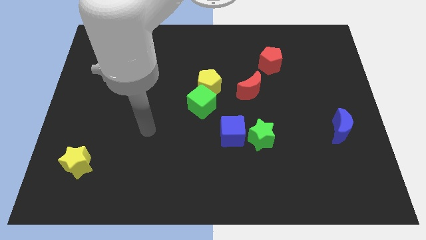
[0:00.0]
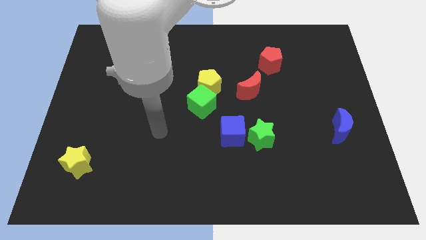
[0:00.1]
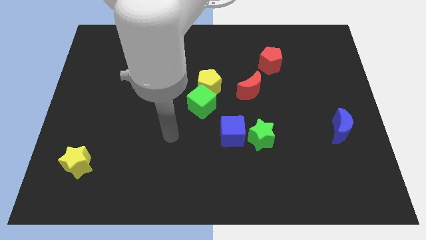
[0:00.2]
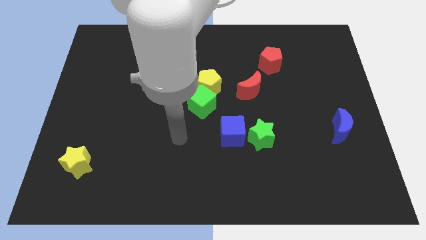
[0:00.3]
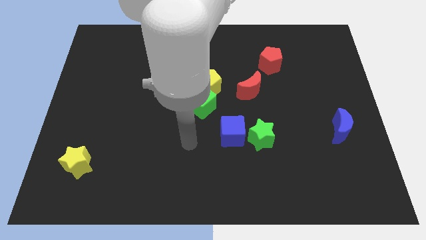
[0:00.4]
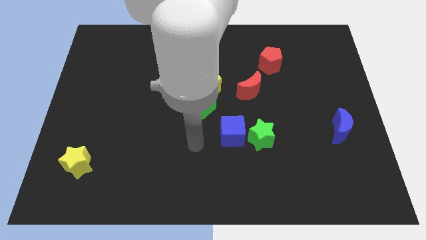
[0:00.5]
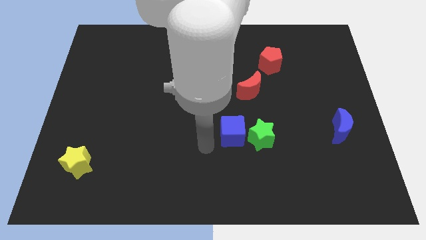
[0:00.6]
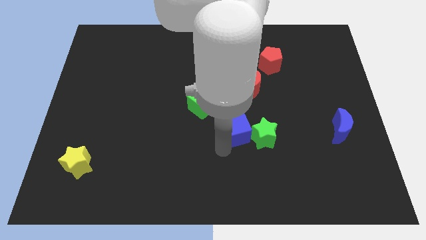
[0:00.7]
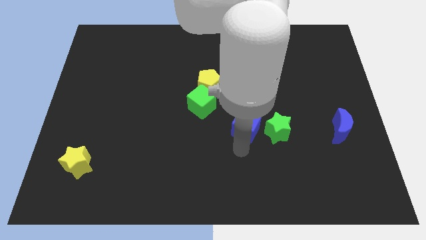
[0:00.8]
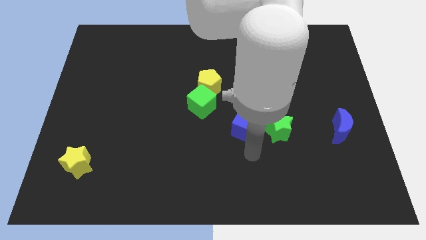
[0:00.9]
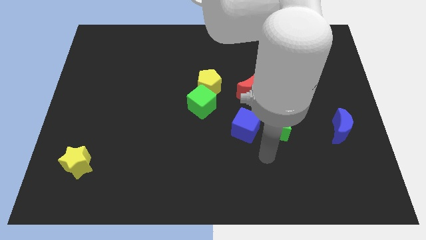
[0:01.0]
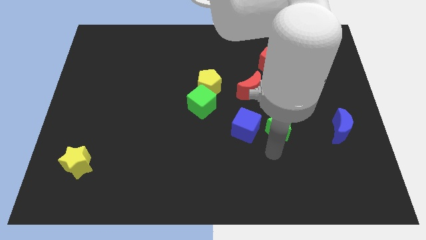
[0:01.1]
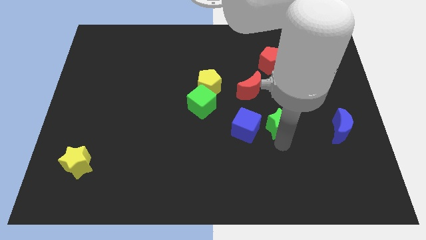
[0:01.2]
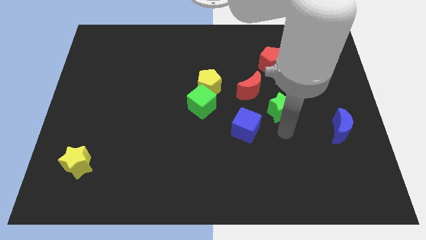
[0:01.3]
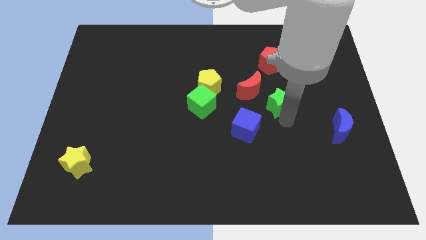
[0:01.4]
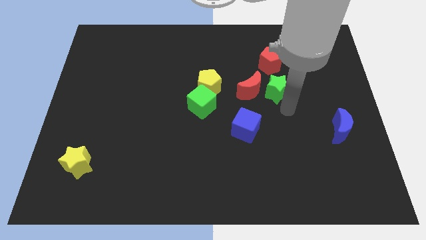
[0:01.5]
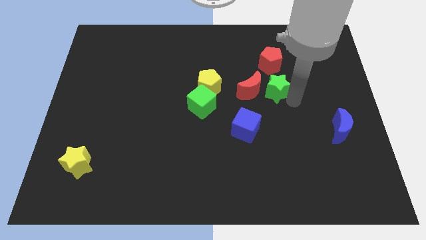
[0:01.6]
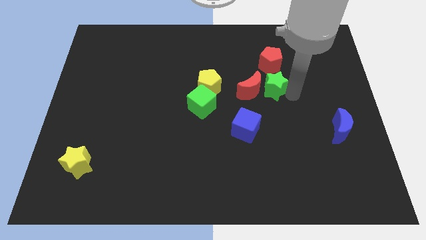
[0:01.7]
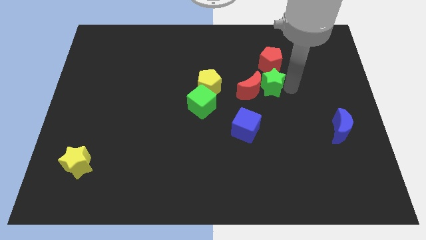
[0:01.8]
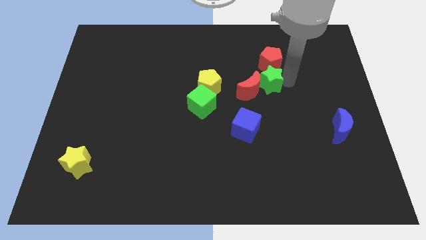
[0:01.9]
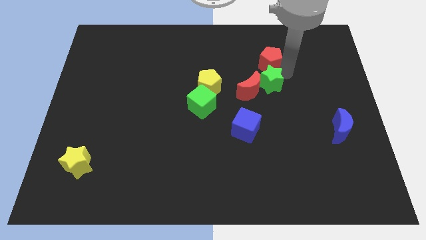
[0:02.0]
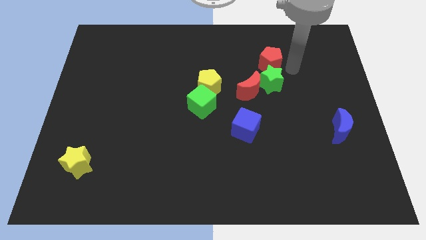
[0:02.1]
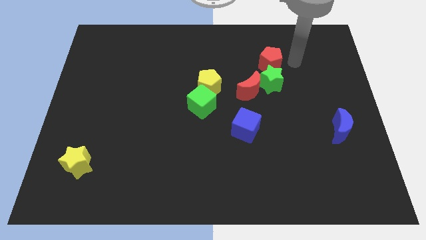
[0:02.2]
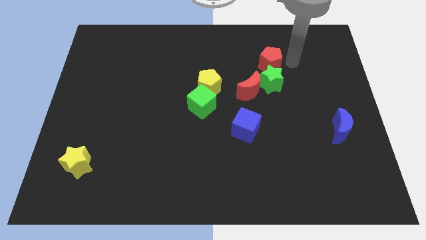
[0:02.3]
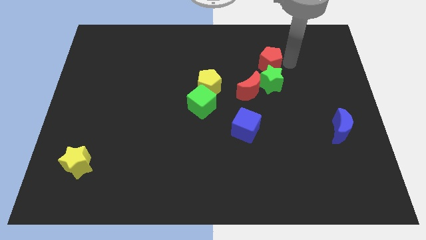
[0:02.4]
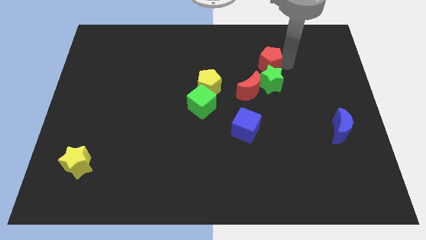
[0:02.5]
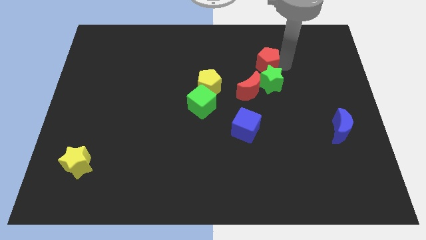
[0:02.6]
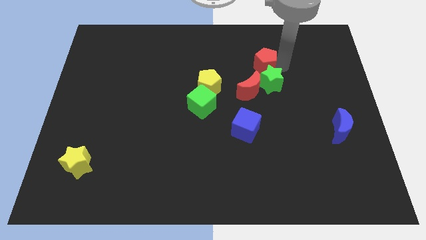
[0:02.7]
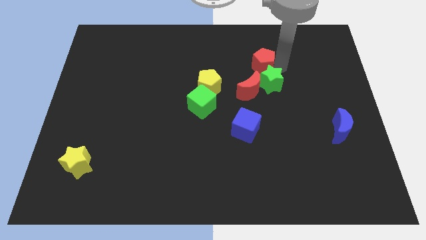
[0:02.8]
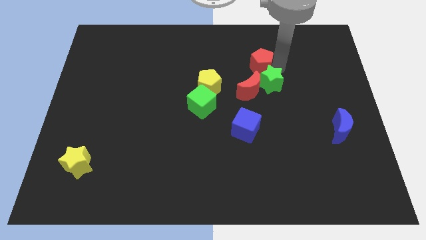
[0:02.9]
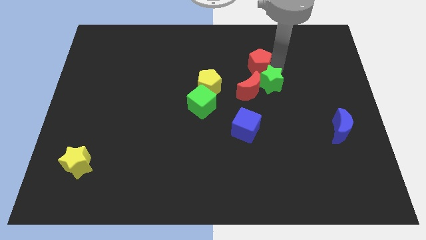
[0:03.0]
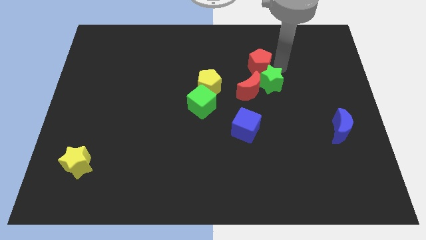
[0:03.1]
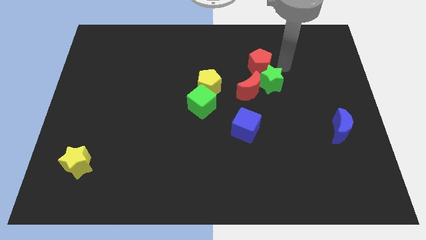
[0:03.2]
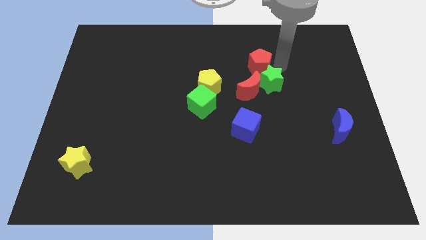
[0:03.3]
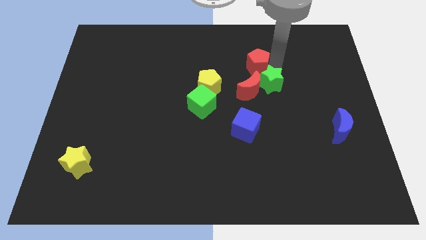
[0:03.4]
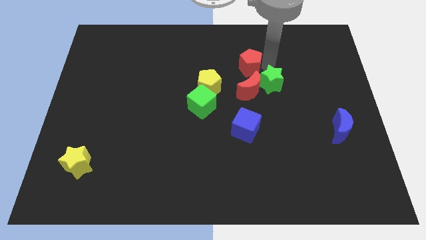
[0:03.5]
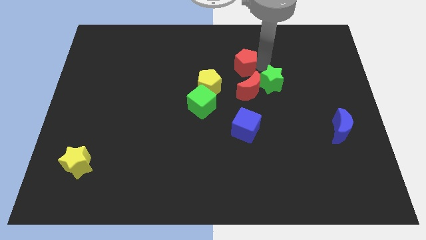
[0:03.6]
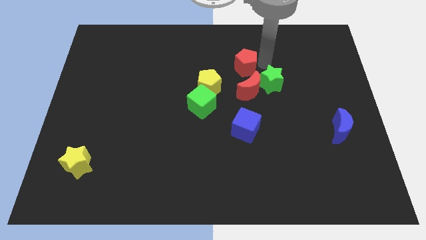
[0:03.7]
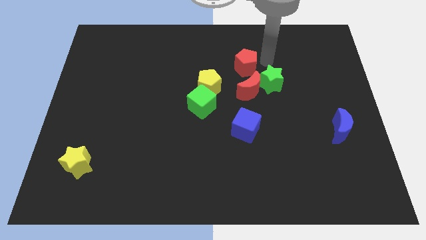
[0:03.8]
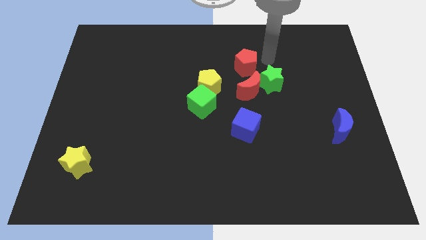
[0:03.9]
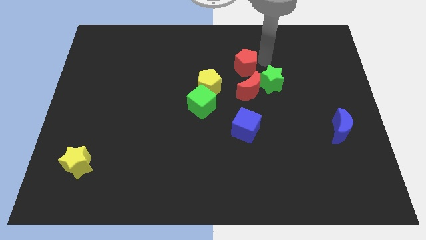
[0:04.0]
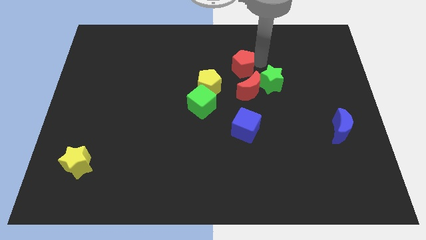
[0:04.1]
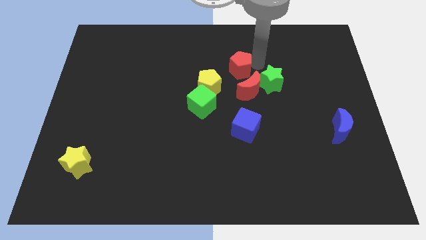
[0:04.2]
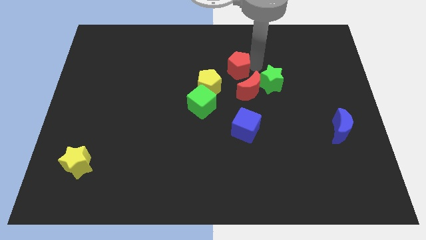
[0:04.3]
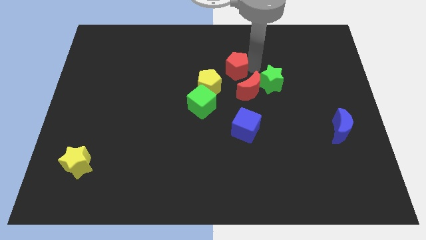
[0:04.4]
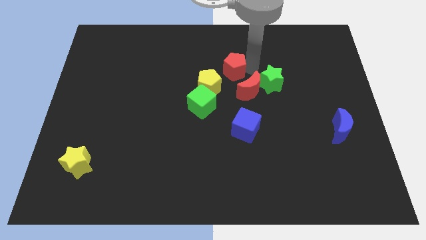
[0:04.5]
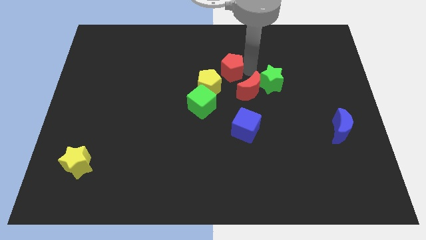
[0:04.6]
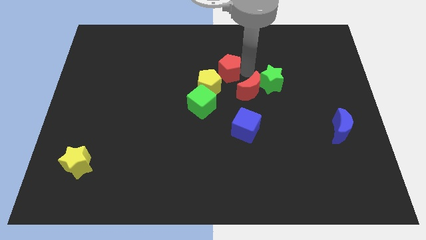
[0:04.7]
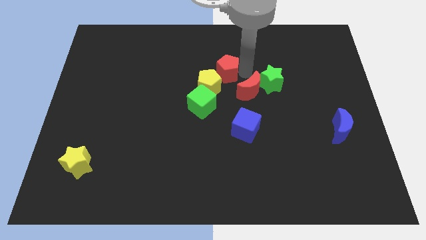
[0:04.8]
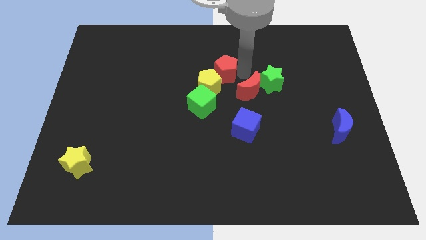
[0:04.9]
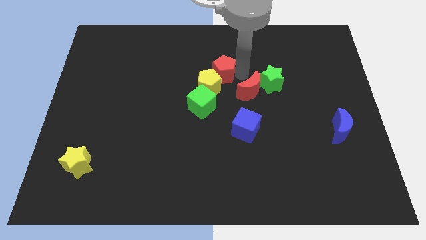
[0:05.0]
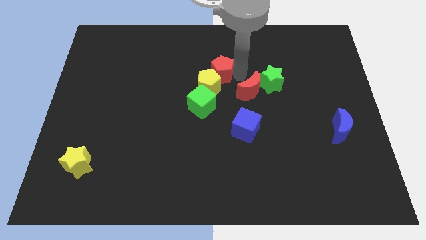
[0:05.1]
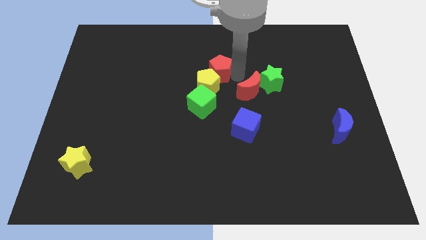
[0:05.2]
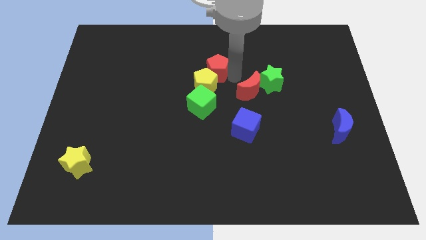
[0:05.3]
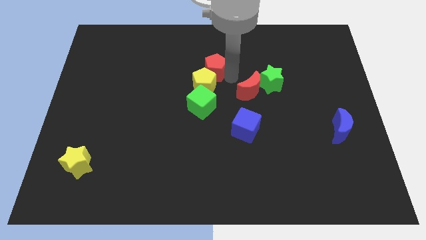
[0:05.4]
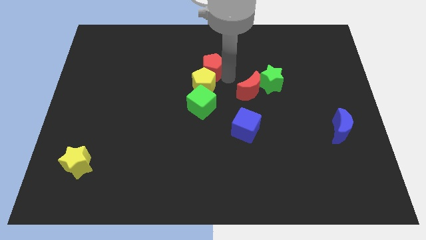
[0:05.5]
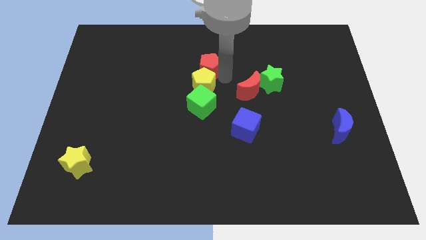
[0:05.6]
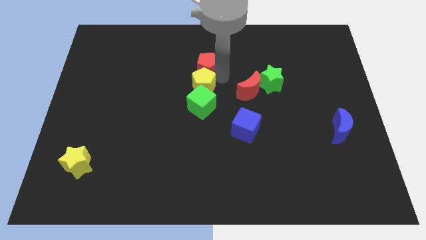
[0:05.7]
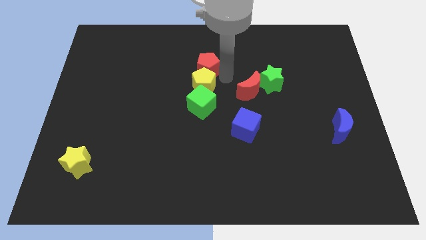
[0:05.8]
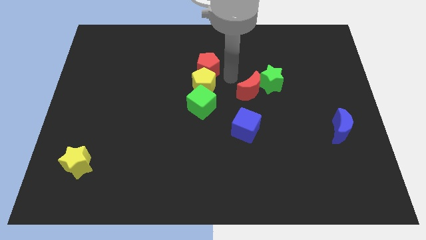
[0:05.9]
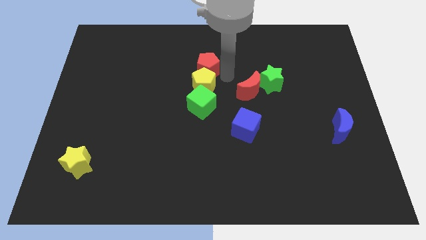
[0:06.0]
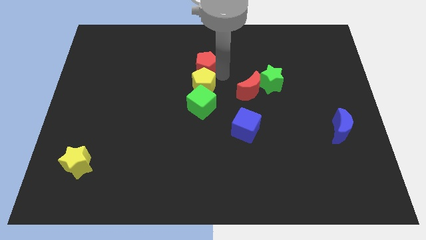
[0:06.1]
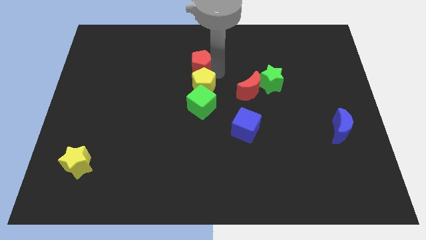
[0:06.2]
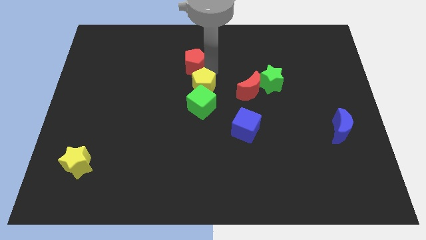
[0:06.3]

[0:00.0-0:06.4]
move the red pentagon to the left

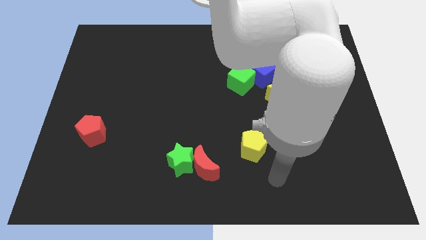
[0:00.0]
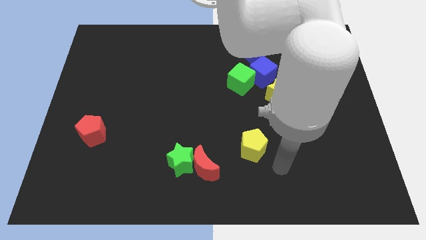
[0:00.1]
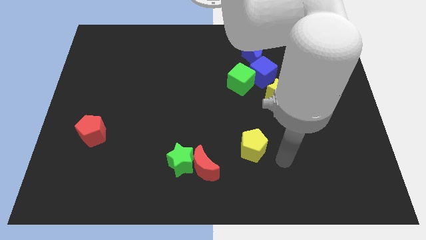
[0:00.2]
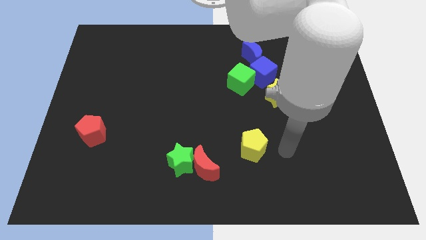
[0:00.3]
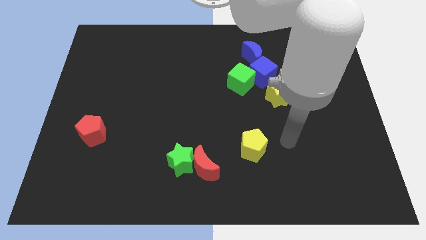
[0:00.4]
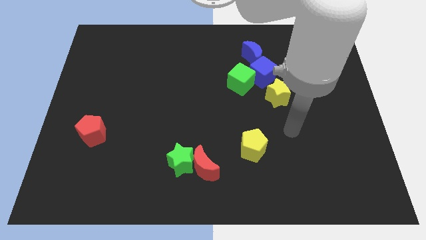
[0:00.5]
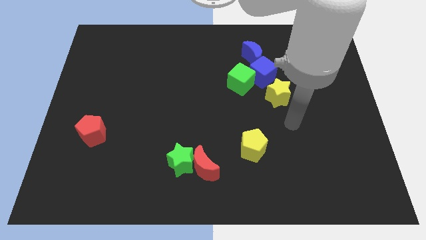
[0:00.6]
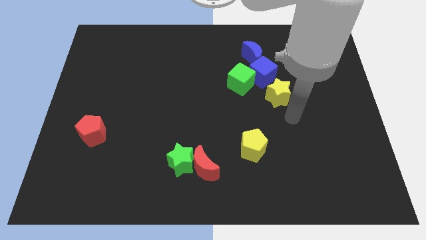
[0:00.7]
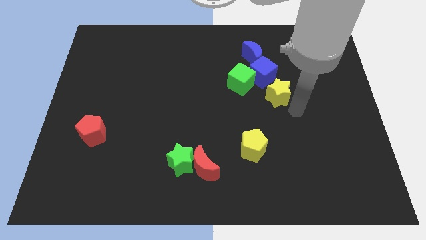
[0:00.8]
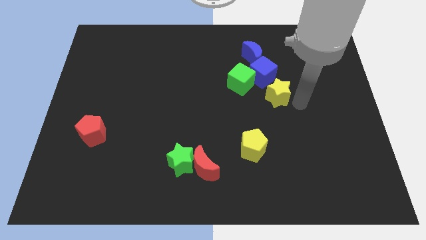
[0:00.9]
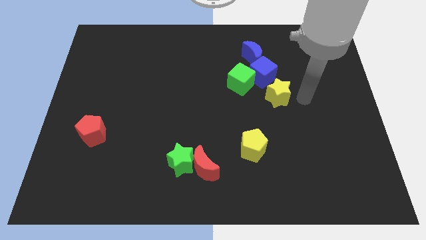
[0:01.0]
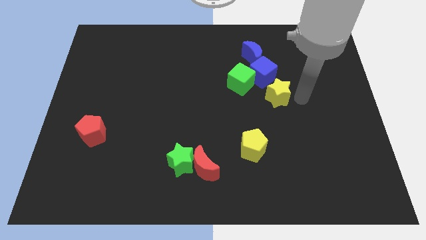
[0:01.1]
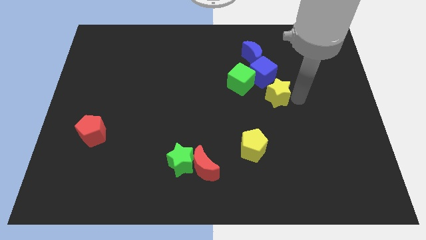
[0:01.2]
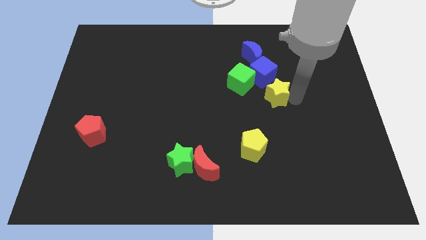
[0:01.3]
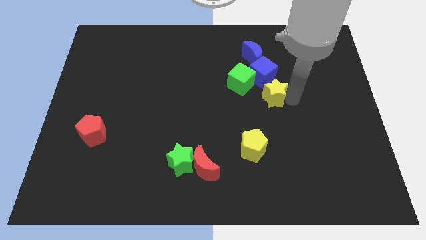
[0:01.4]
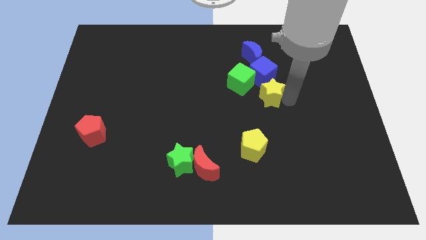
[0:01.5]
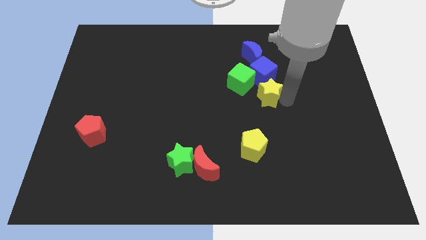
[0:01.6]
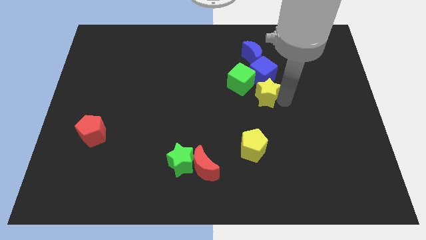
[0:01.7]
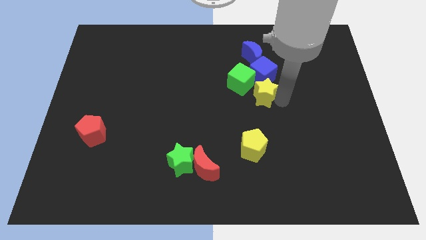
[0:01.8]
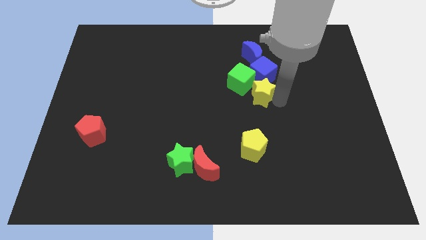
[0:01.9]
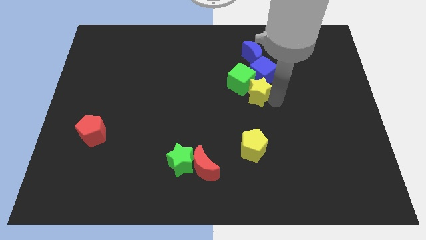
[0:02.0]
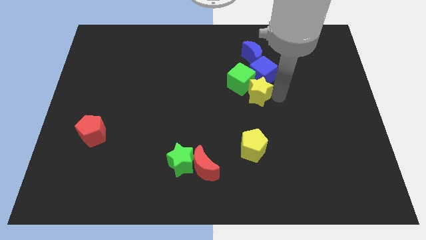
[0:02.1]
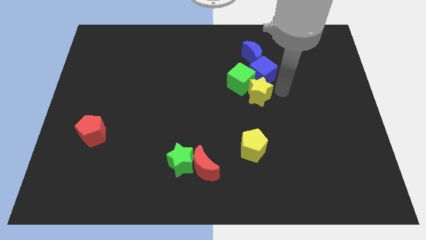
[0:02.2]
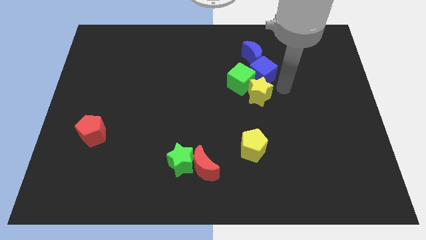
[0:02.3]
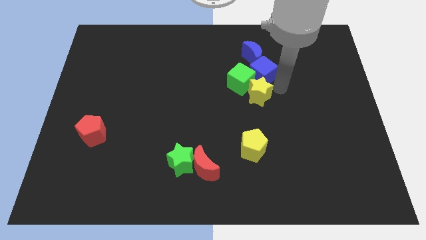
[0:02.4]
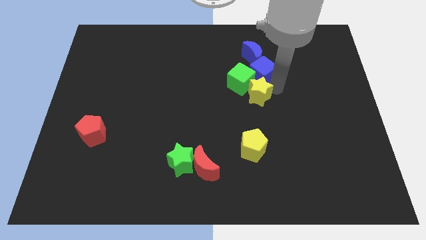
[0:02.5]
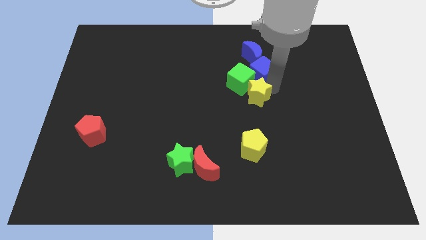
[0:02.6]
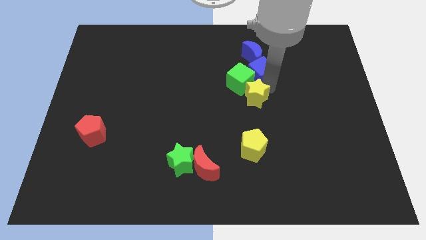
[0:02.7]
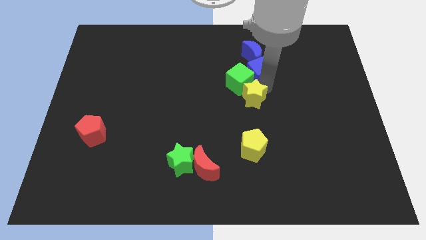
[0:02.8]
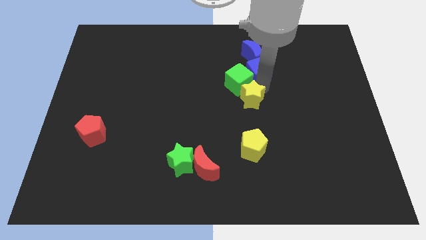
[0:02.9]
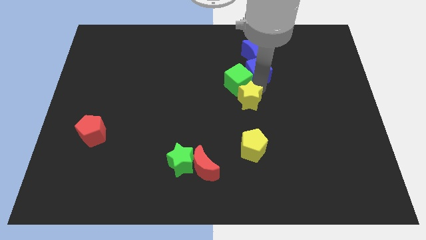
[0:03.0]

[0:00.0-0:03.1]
slightly slide the yellow star left
